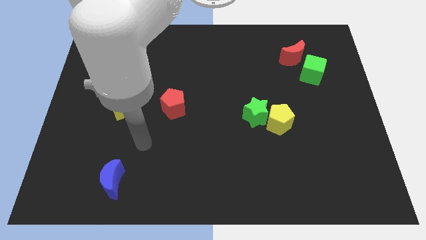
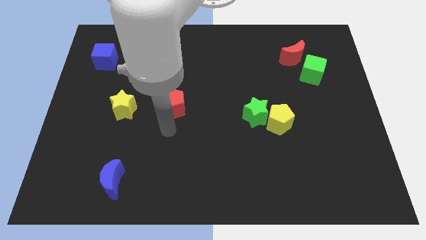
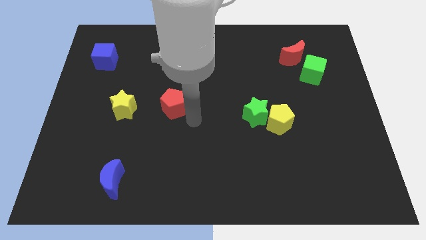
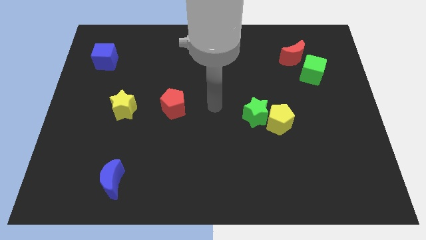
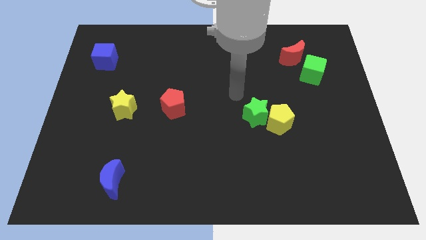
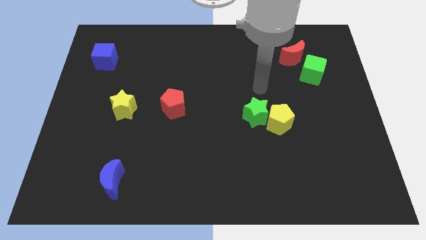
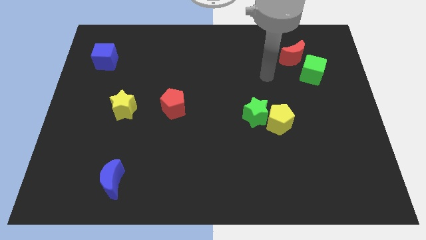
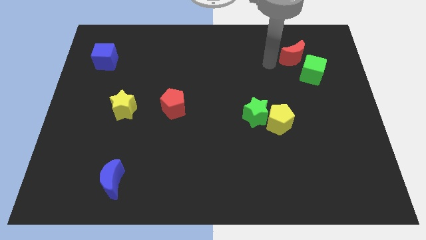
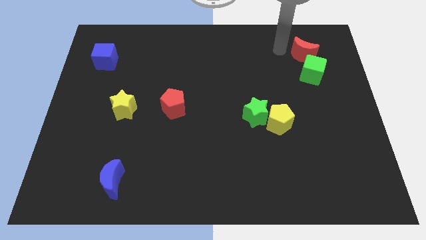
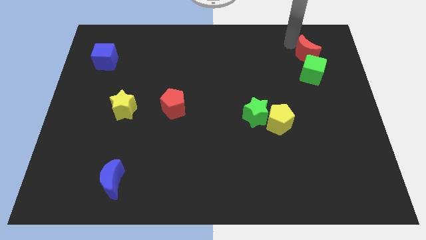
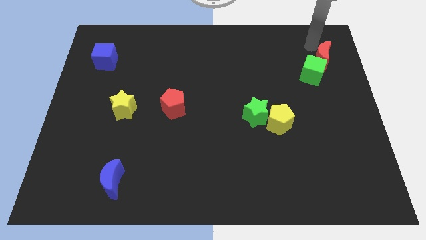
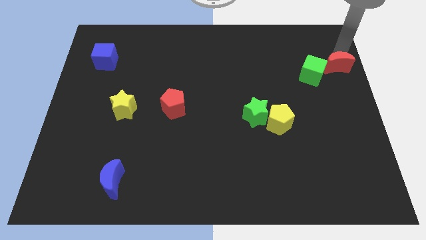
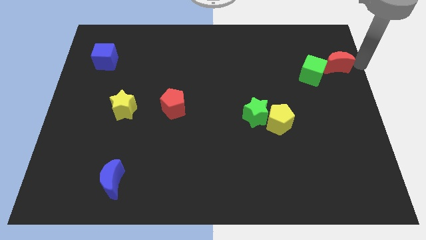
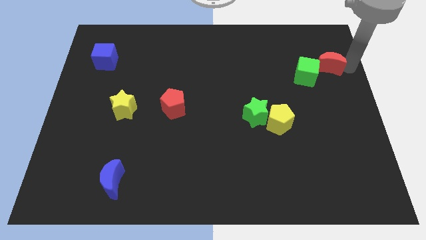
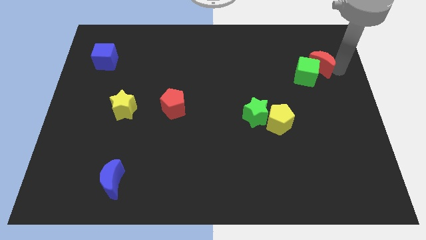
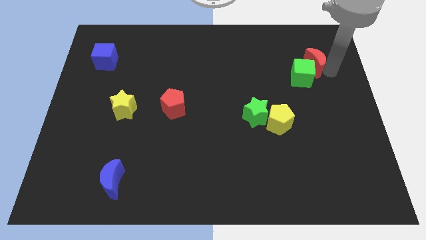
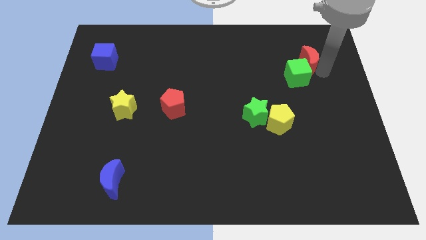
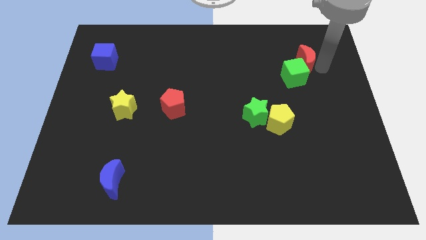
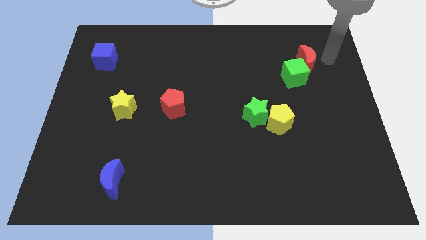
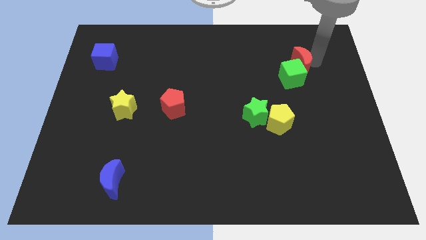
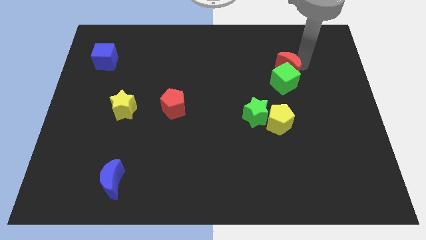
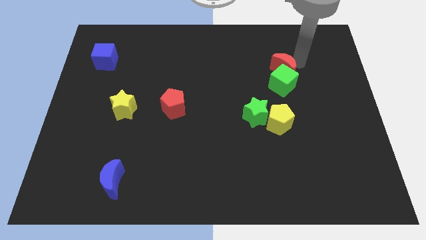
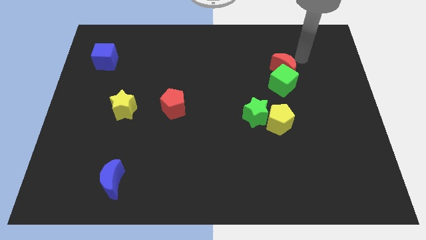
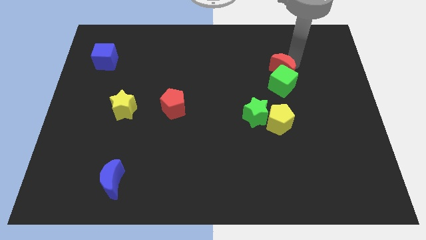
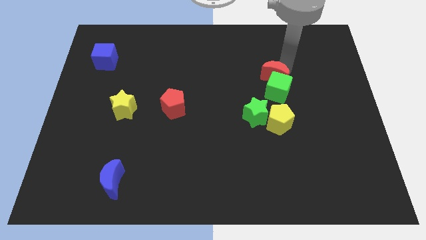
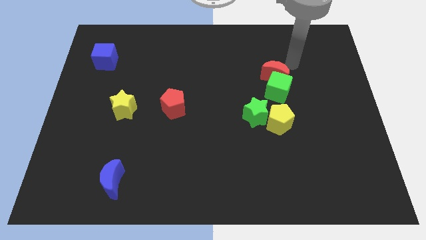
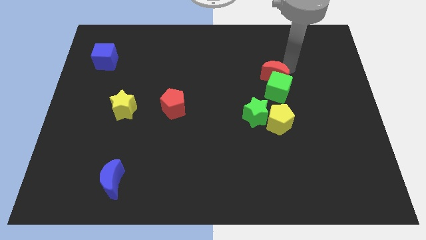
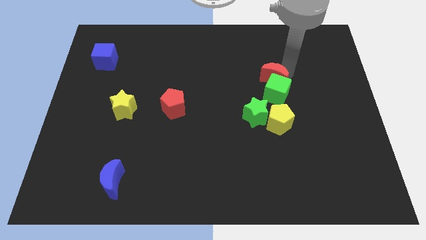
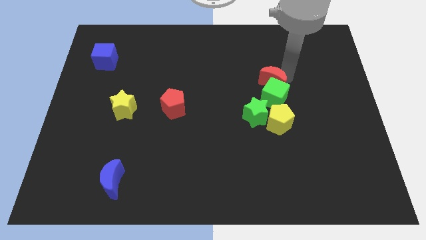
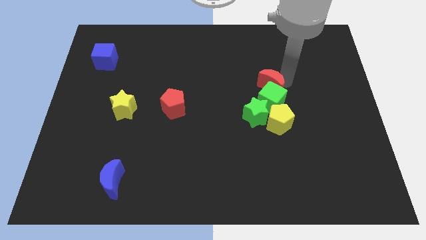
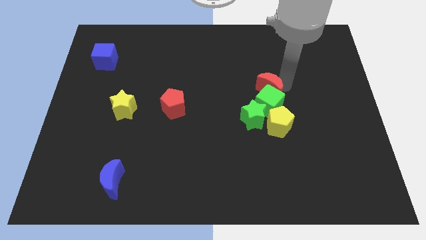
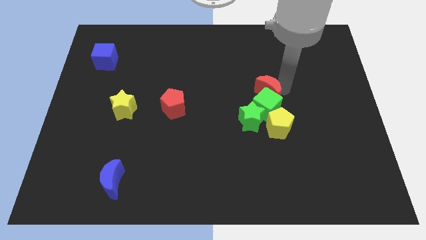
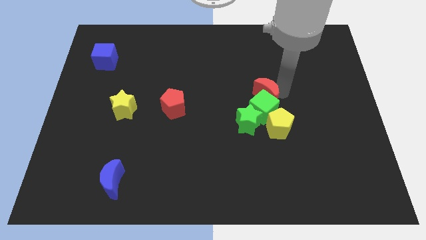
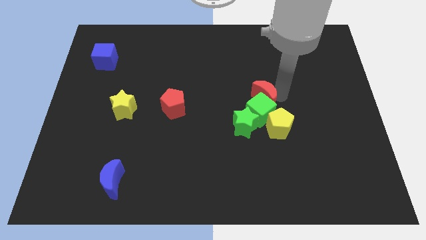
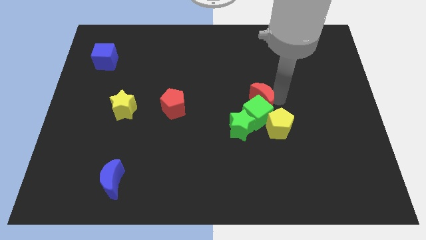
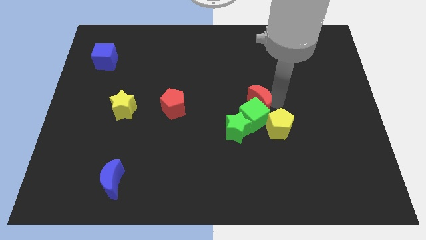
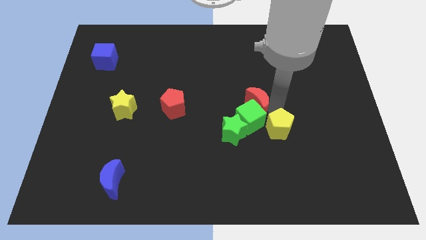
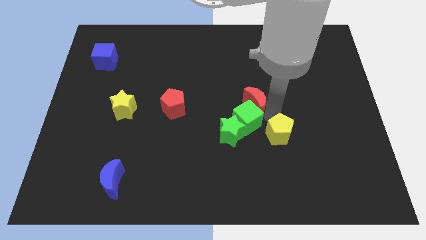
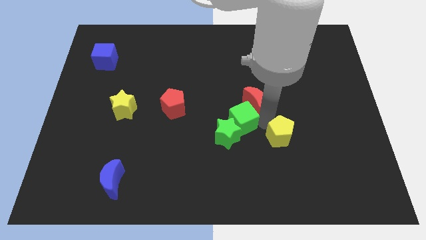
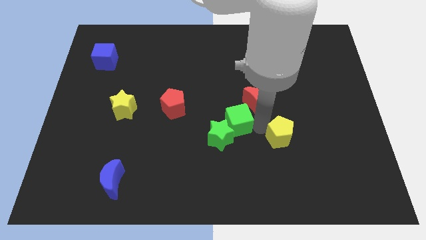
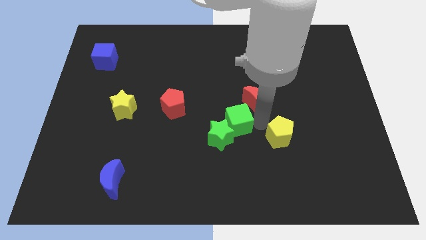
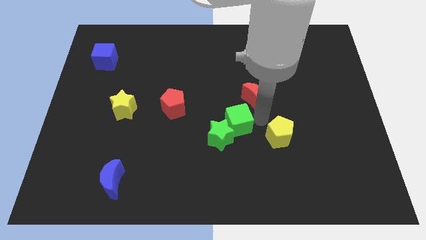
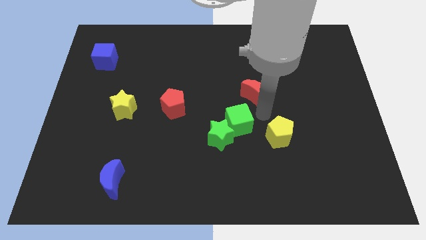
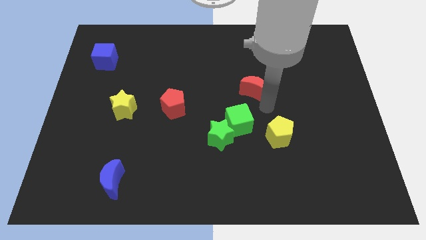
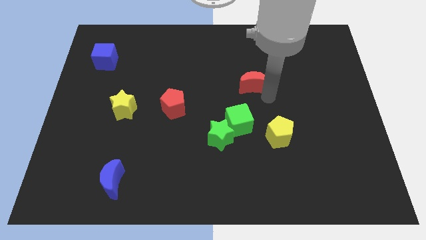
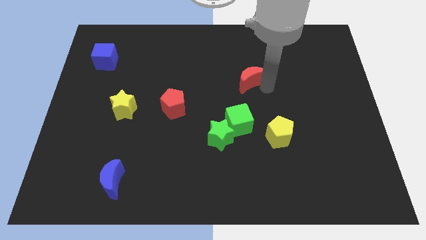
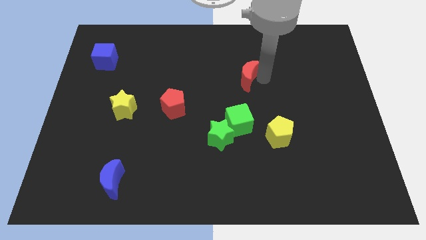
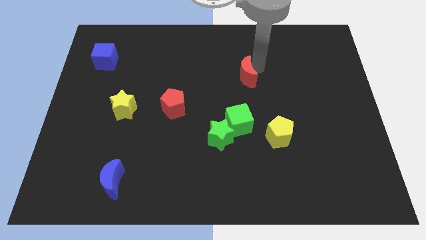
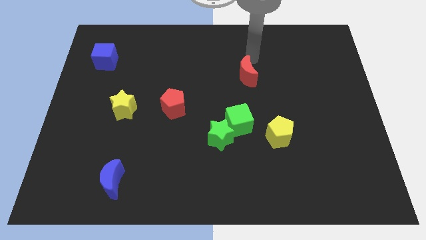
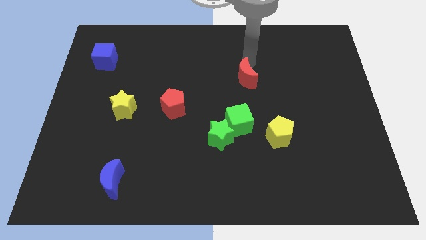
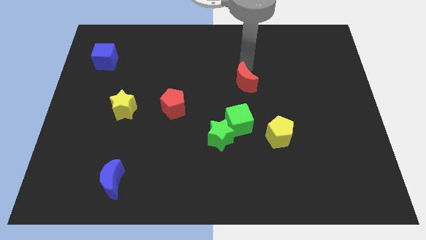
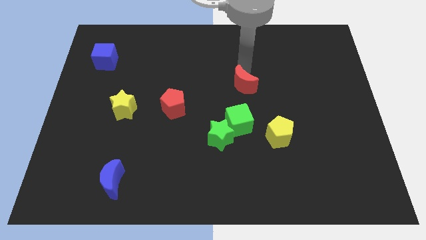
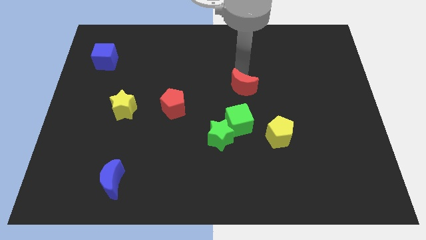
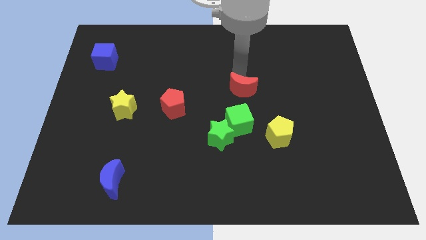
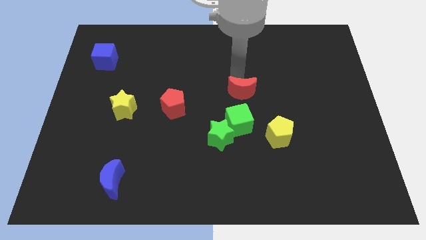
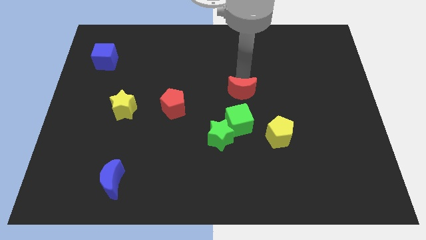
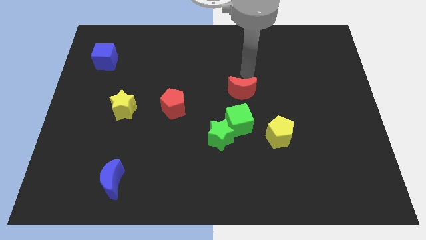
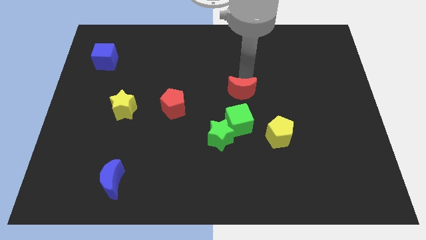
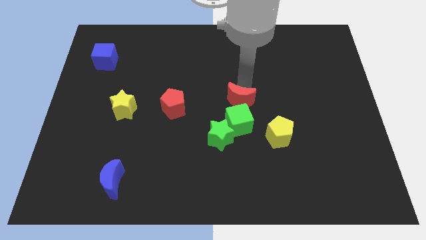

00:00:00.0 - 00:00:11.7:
push the red moon down and to the left

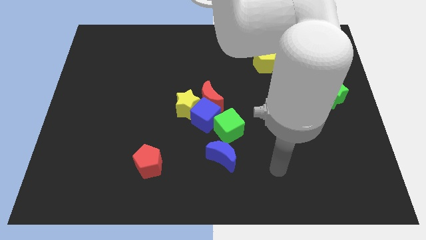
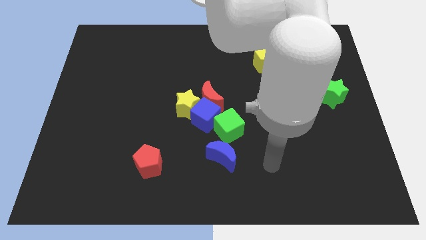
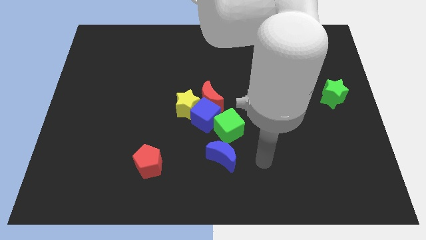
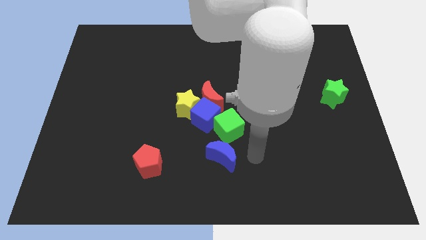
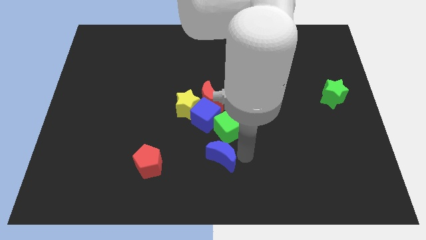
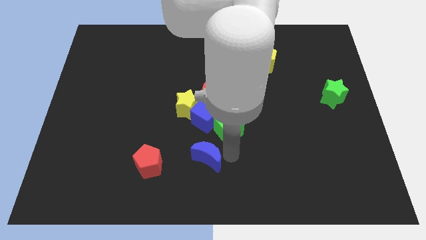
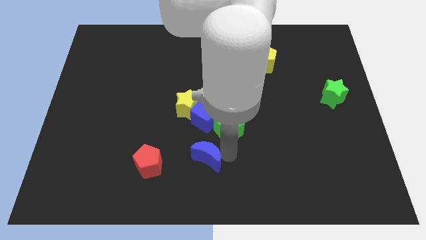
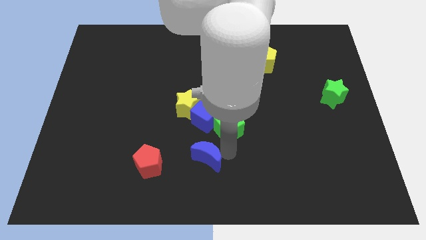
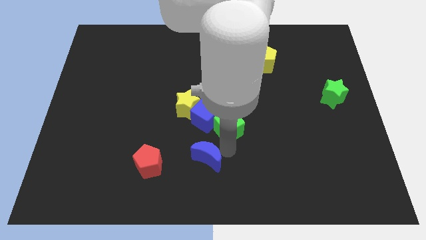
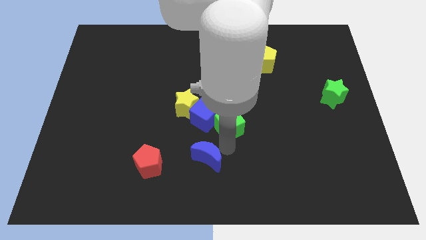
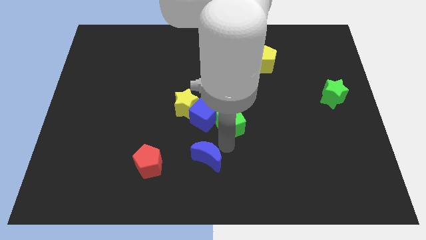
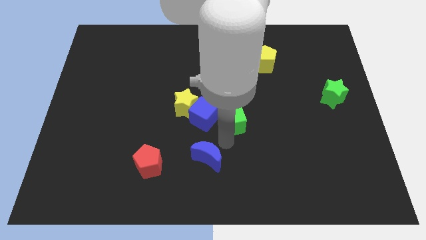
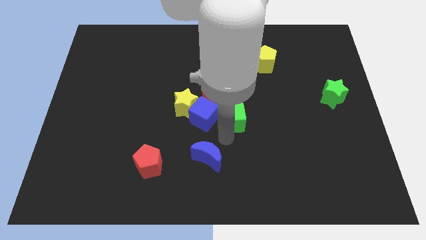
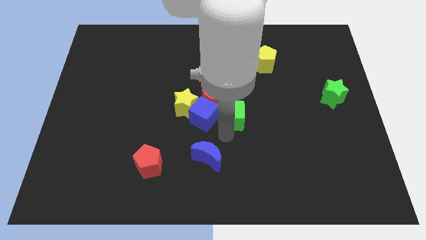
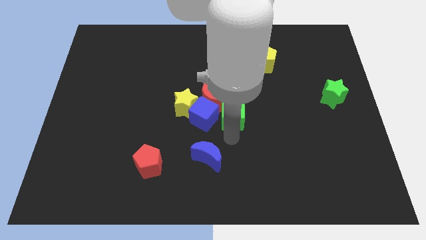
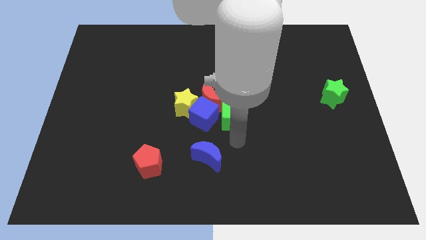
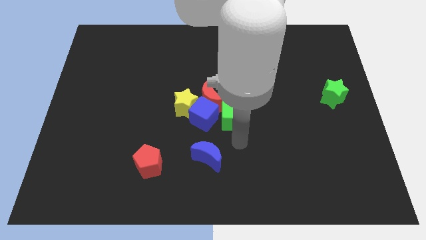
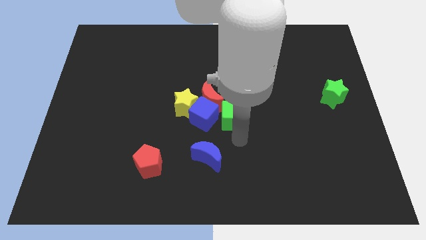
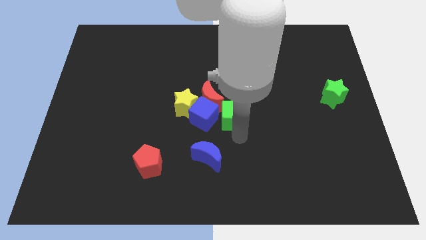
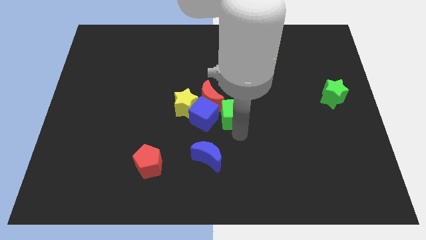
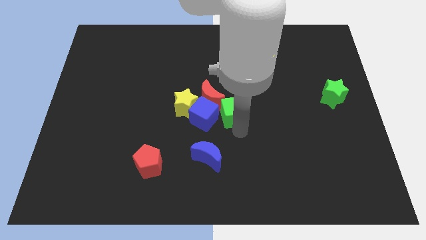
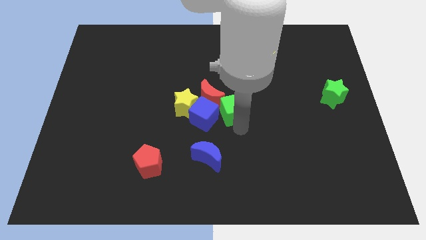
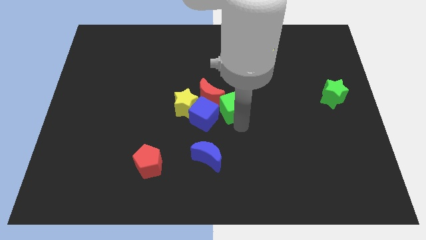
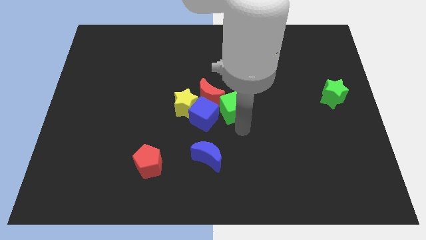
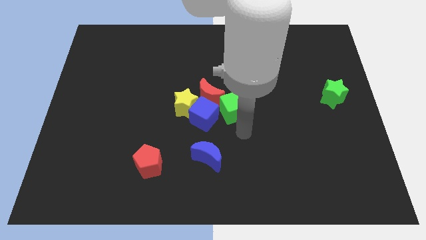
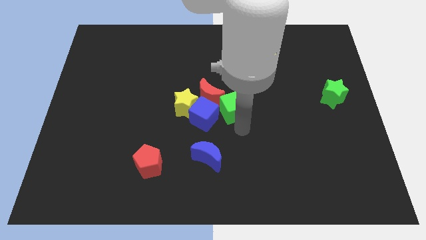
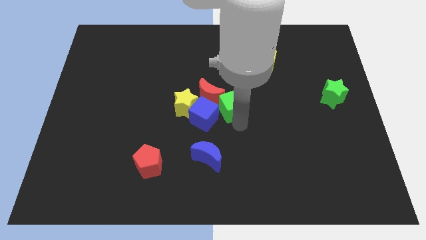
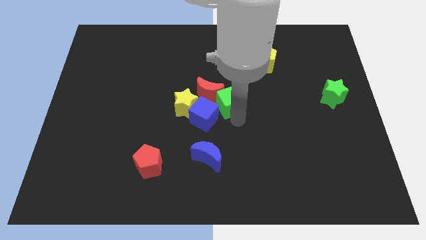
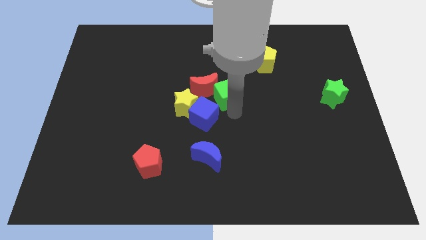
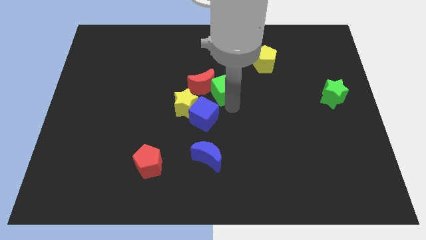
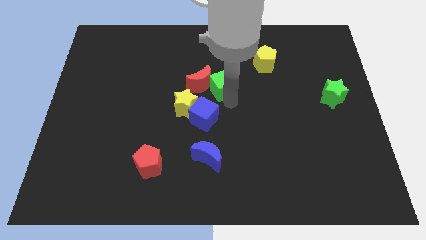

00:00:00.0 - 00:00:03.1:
slightly move the green cube diagonally upwards and to the left
